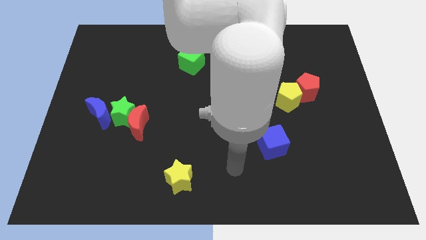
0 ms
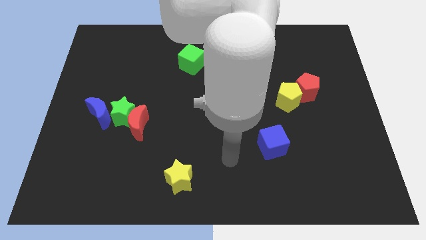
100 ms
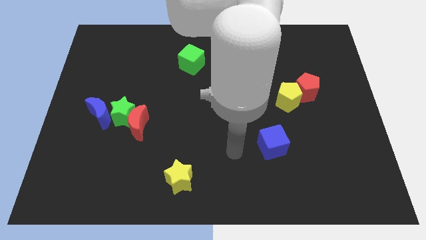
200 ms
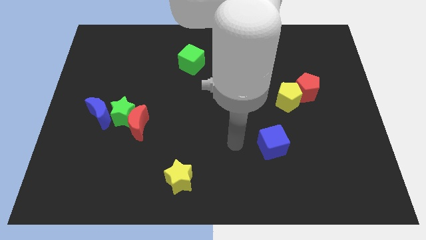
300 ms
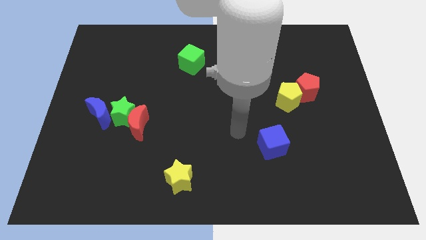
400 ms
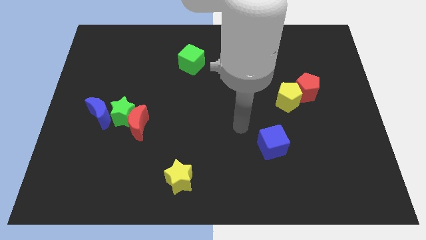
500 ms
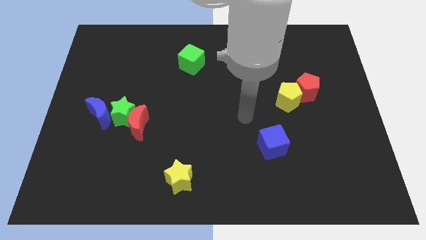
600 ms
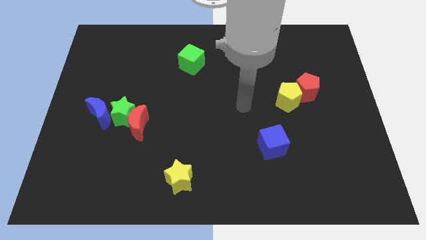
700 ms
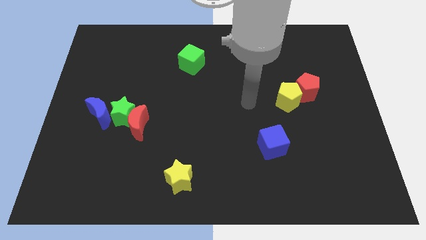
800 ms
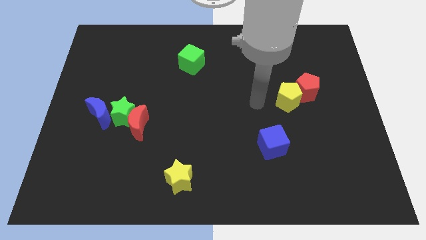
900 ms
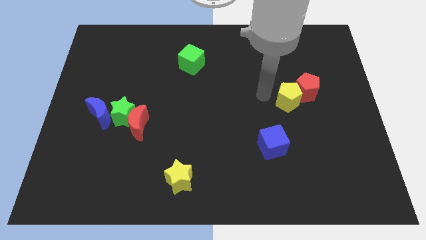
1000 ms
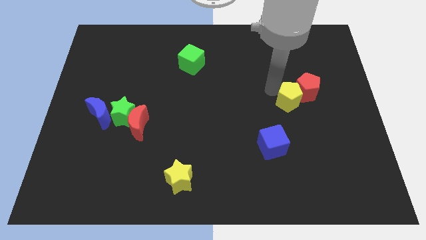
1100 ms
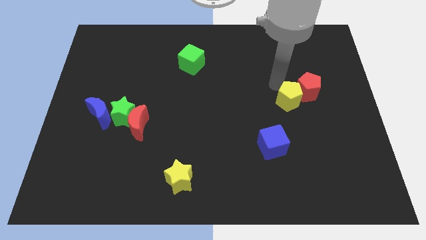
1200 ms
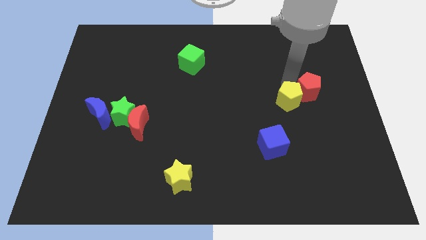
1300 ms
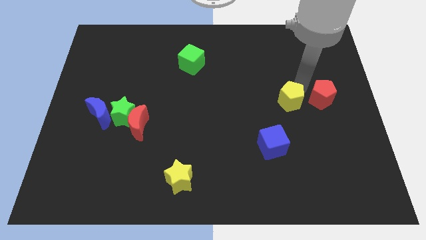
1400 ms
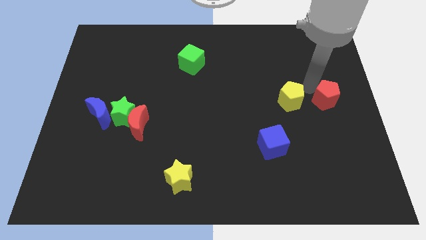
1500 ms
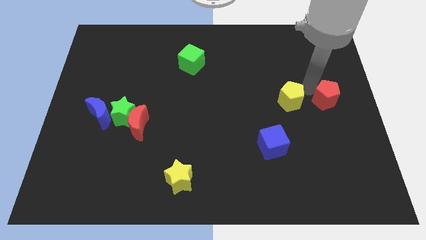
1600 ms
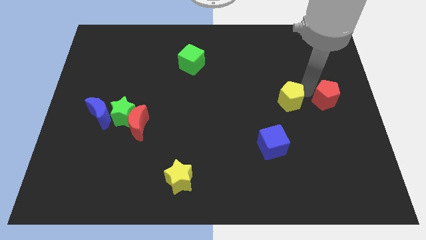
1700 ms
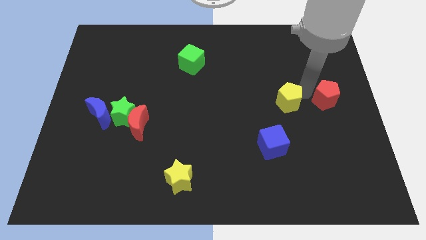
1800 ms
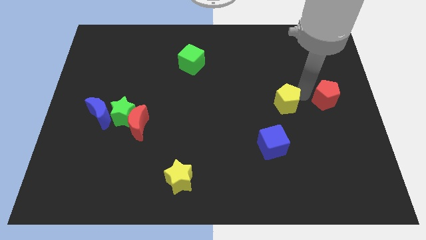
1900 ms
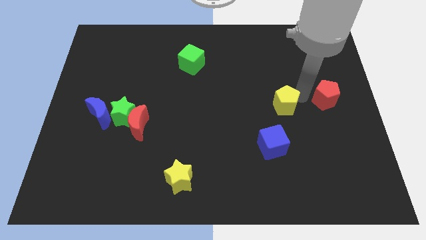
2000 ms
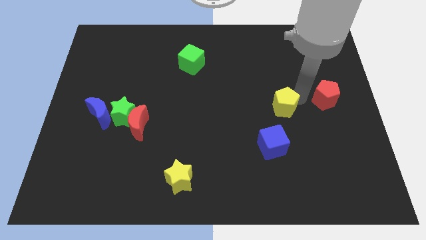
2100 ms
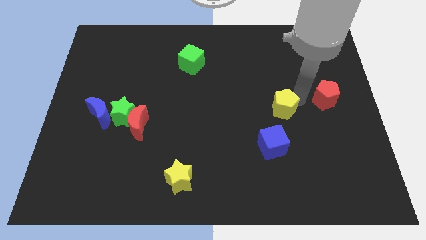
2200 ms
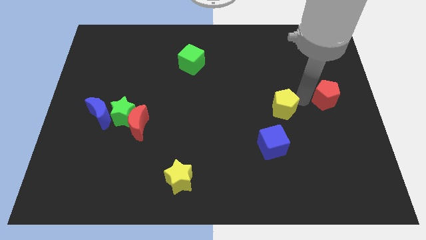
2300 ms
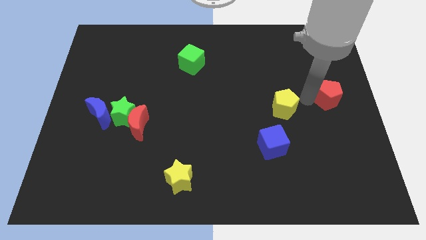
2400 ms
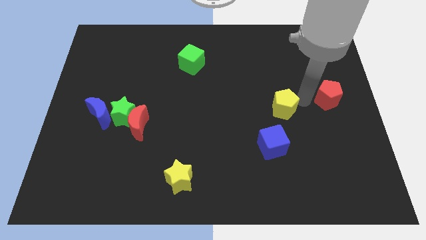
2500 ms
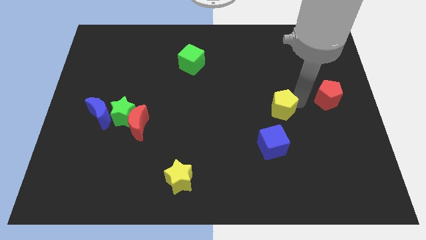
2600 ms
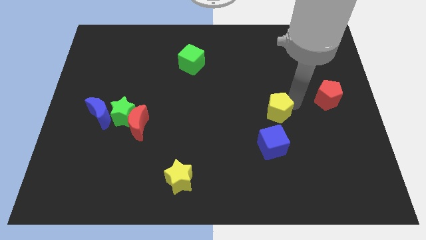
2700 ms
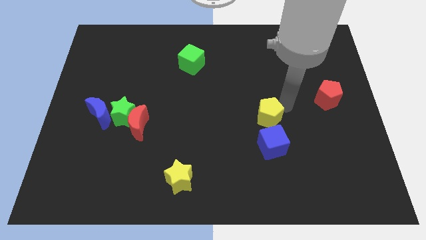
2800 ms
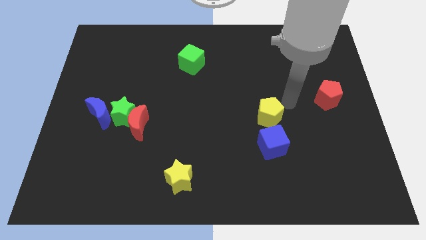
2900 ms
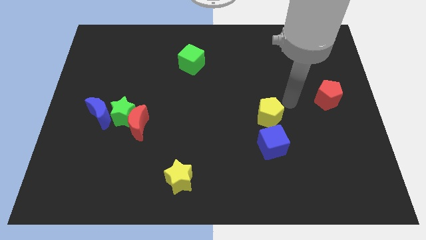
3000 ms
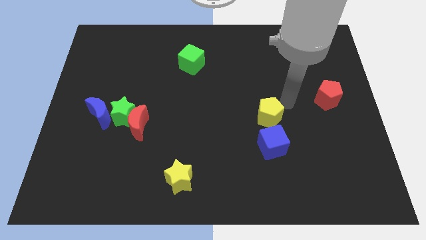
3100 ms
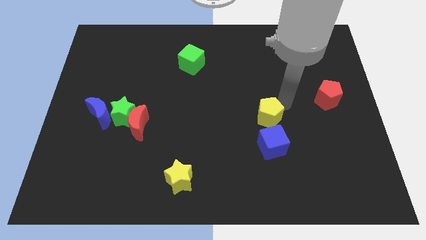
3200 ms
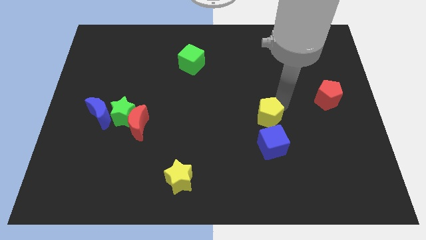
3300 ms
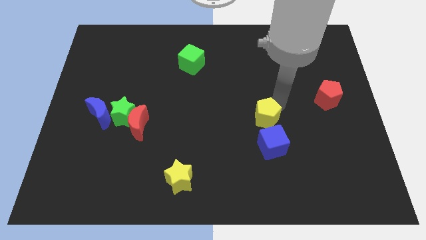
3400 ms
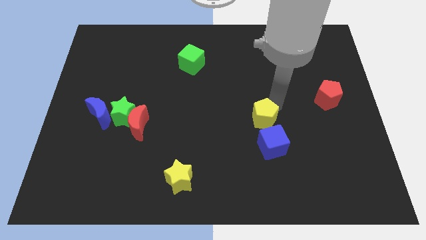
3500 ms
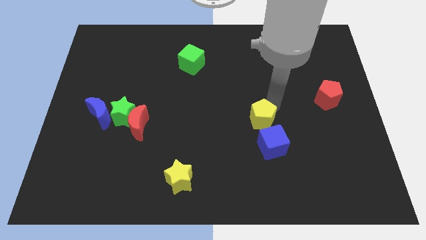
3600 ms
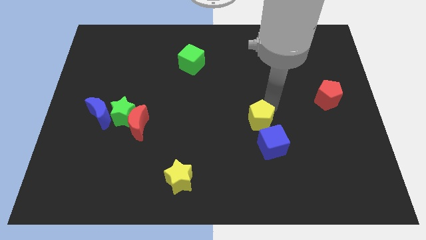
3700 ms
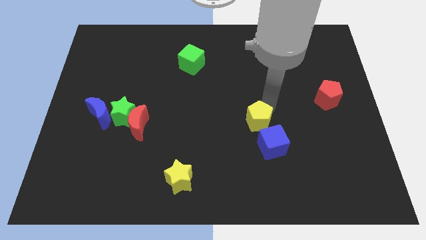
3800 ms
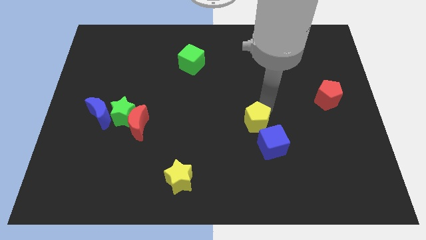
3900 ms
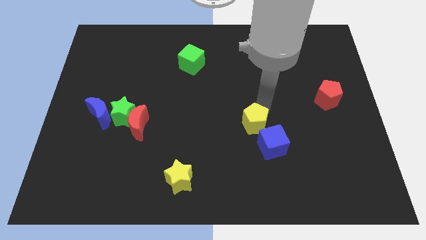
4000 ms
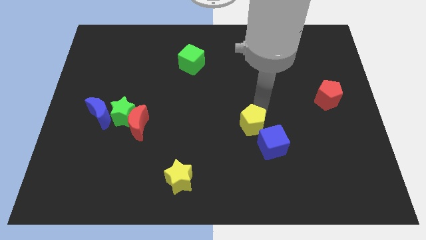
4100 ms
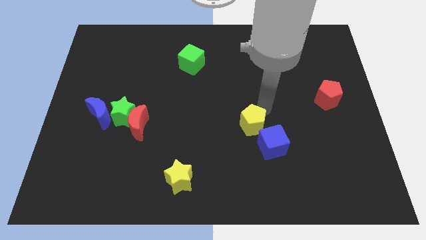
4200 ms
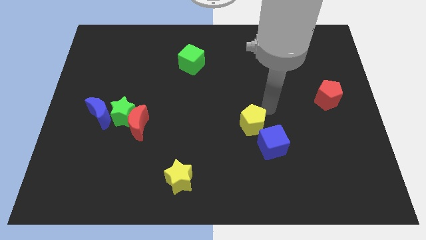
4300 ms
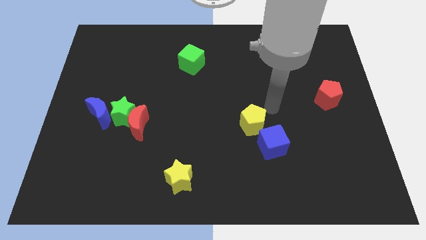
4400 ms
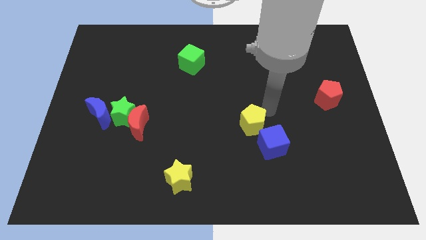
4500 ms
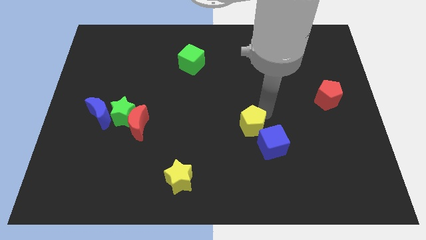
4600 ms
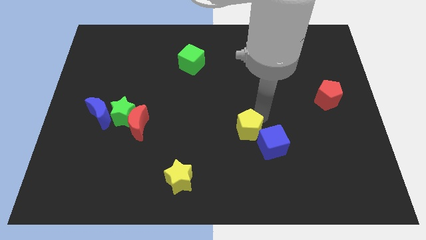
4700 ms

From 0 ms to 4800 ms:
slide the yellow pentagon to the left side of the blue cube

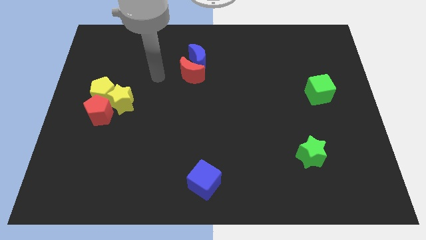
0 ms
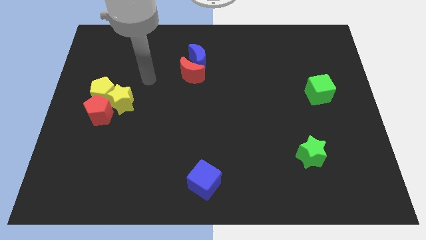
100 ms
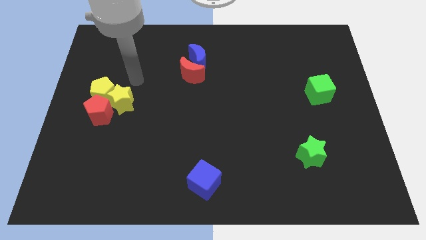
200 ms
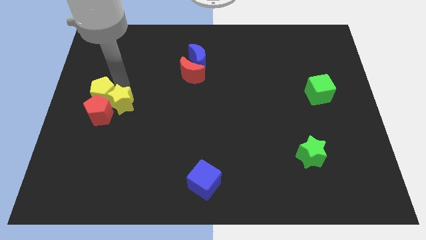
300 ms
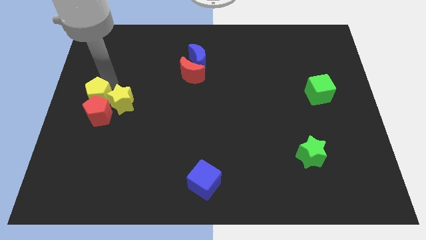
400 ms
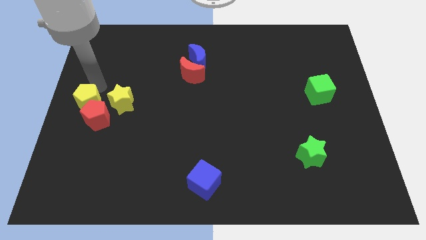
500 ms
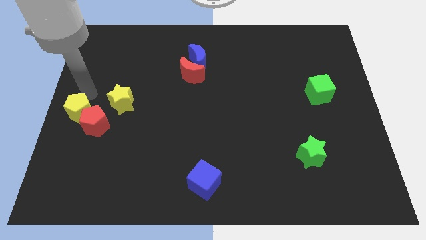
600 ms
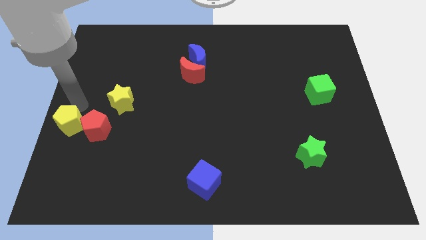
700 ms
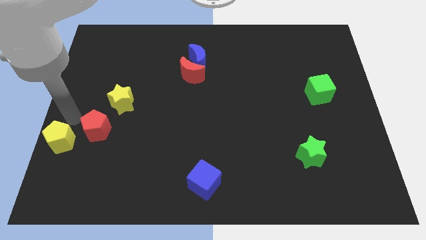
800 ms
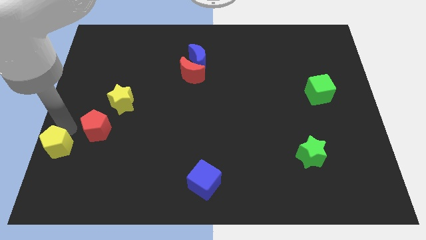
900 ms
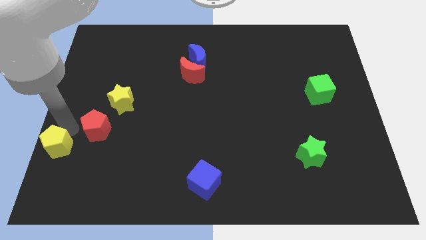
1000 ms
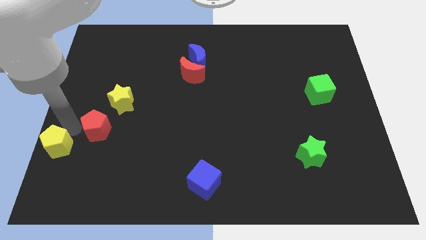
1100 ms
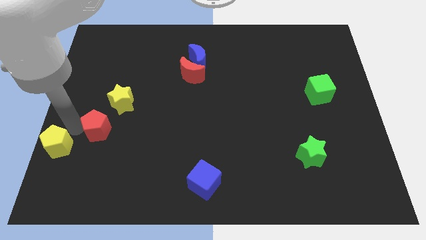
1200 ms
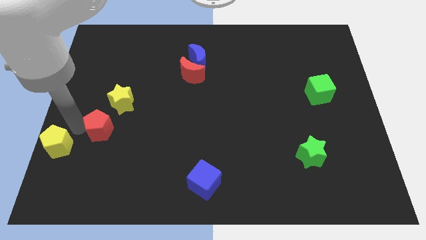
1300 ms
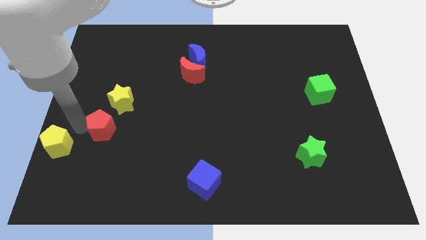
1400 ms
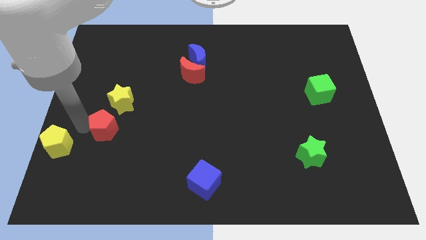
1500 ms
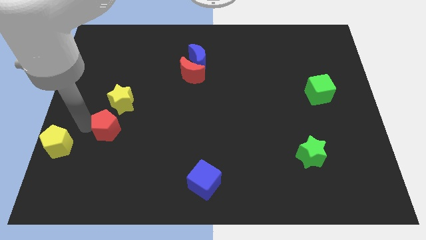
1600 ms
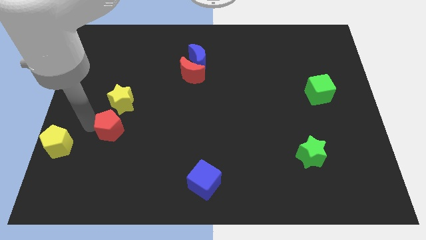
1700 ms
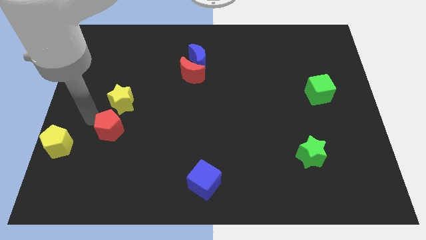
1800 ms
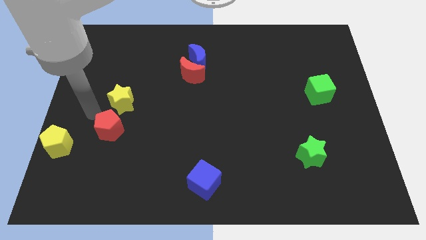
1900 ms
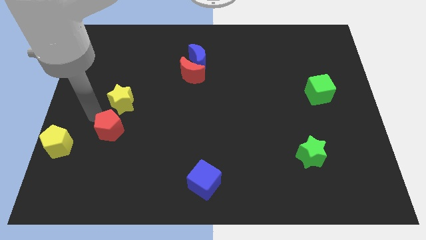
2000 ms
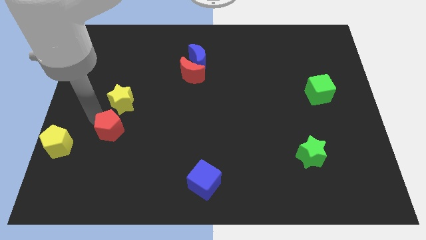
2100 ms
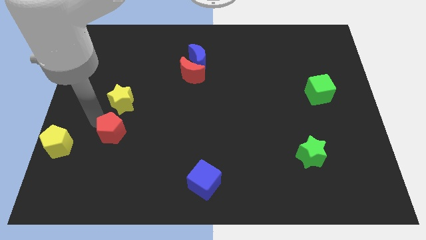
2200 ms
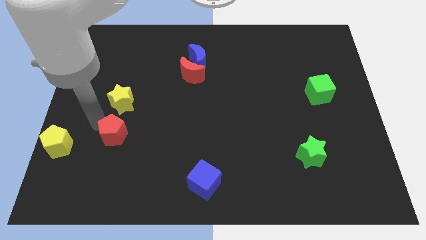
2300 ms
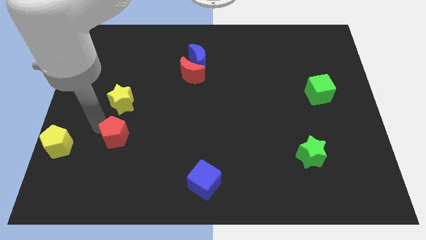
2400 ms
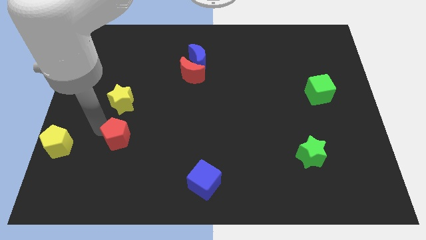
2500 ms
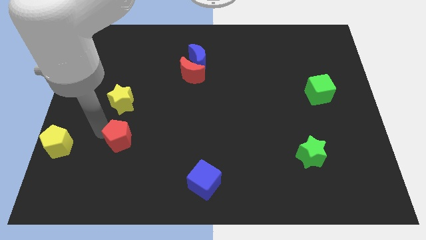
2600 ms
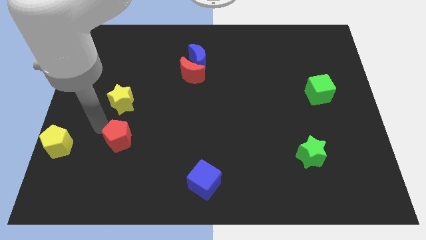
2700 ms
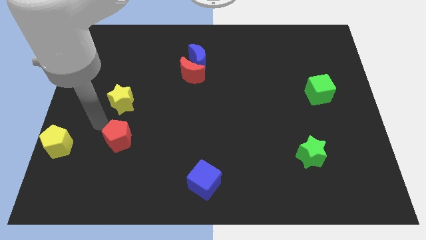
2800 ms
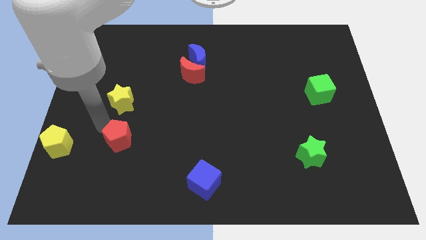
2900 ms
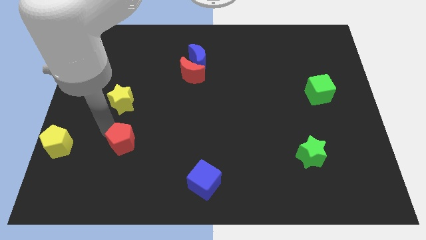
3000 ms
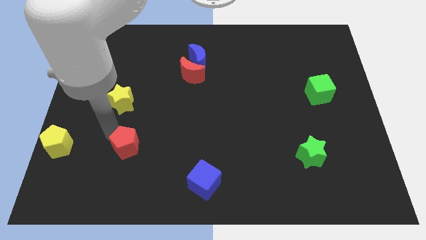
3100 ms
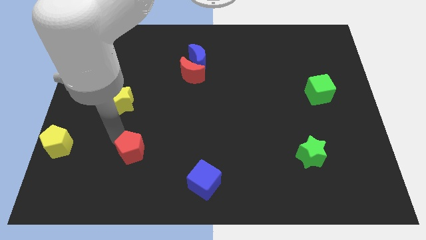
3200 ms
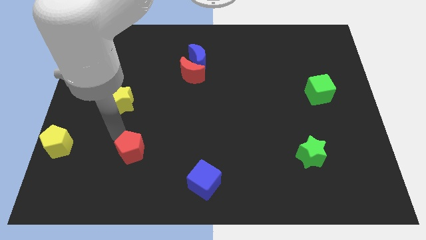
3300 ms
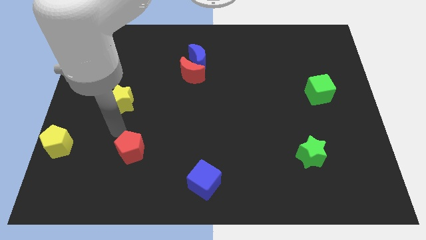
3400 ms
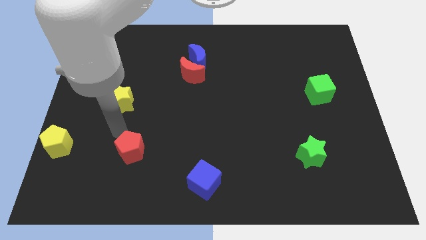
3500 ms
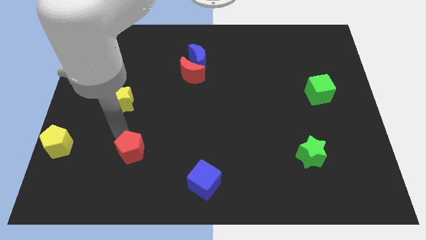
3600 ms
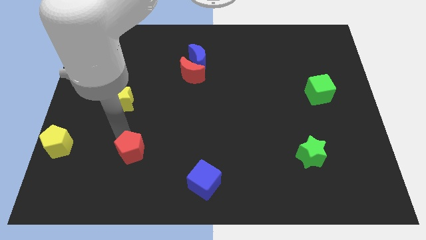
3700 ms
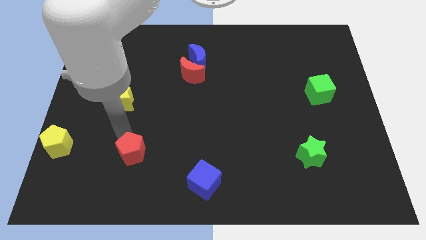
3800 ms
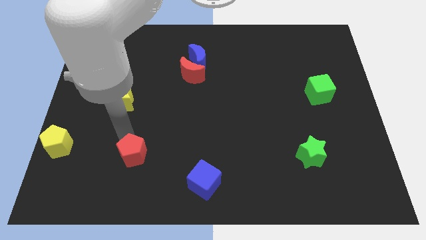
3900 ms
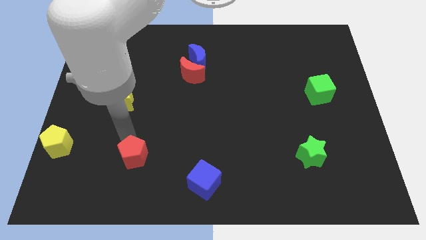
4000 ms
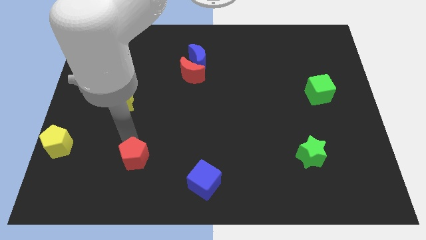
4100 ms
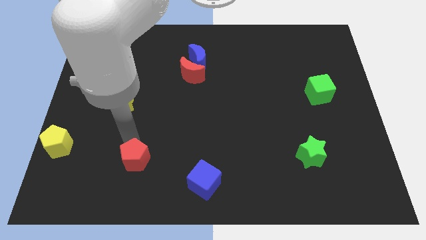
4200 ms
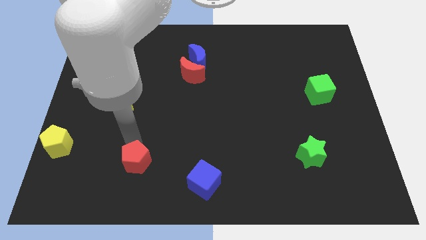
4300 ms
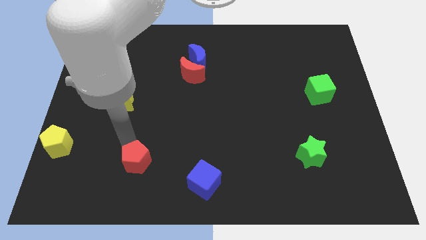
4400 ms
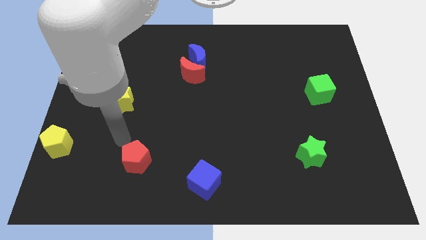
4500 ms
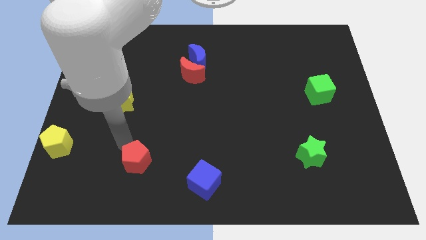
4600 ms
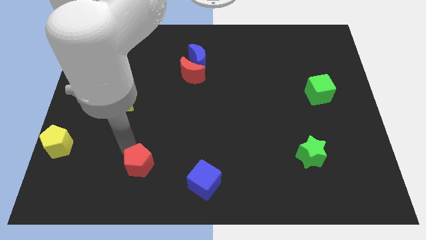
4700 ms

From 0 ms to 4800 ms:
push the red pentagon to the left side of the blue cube
